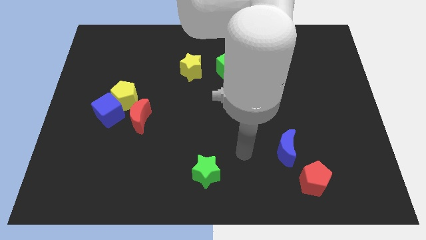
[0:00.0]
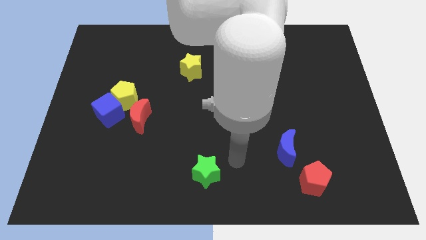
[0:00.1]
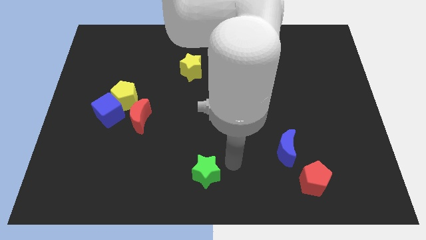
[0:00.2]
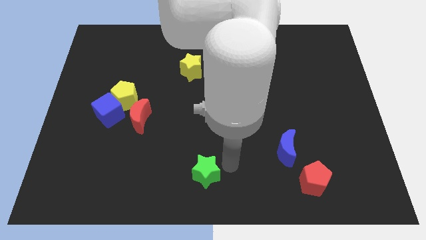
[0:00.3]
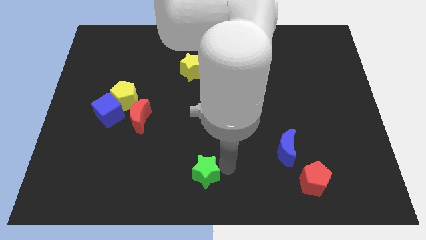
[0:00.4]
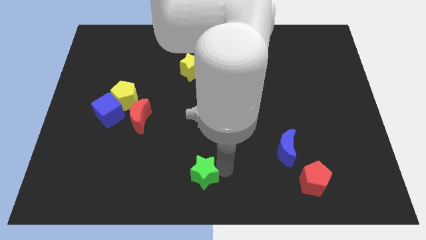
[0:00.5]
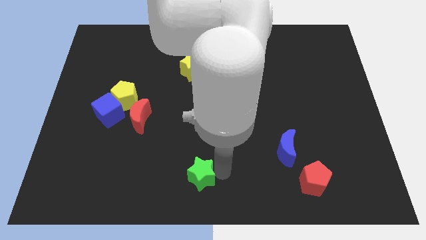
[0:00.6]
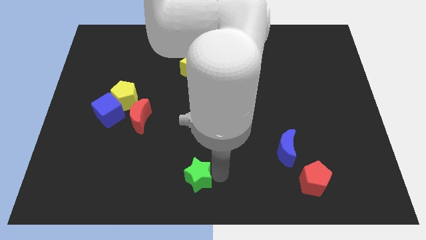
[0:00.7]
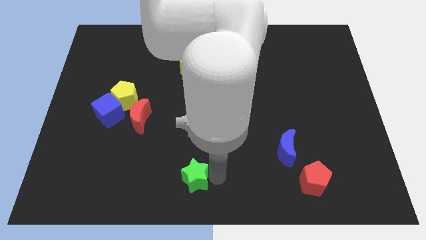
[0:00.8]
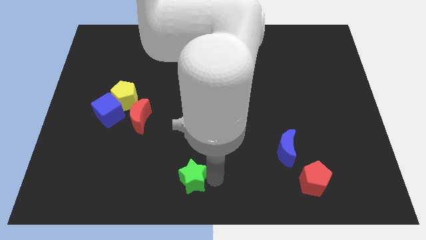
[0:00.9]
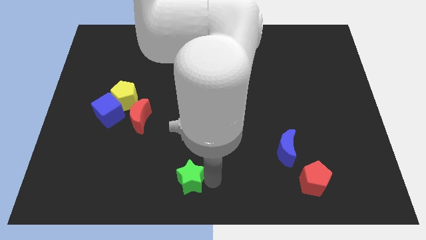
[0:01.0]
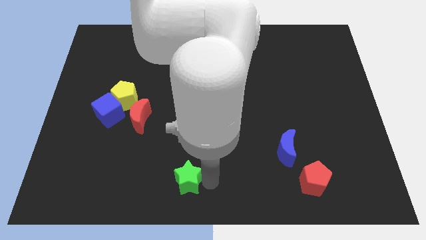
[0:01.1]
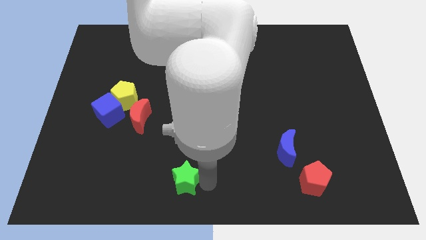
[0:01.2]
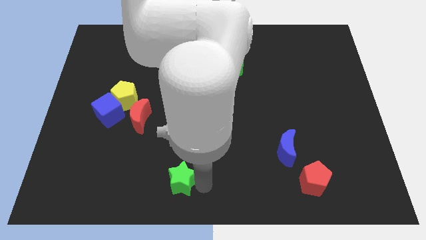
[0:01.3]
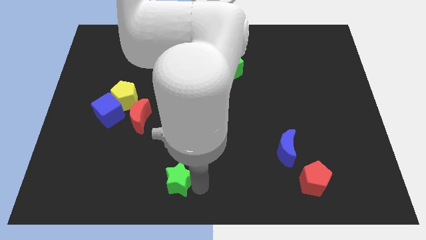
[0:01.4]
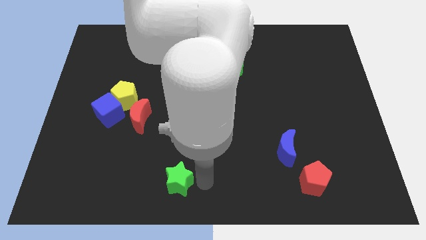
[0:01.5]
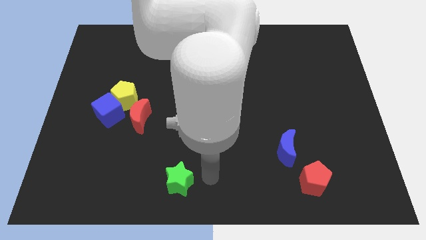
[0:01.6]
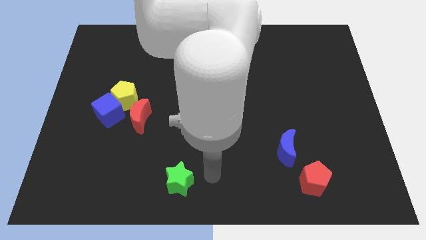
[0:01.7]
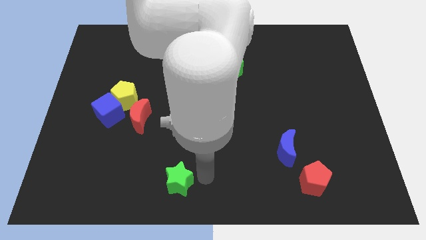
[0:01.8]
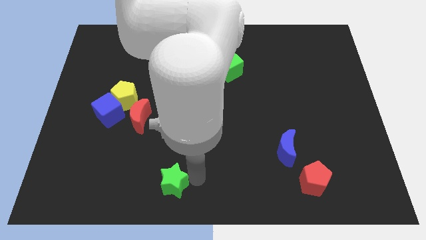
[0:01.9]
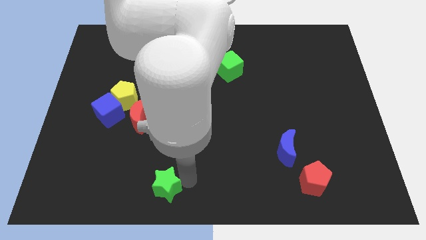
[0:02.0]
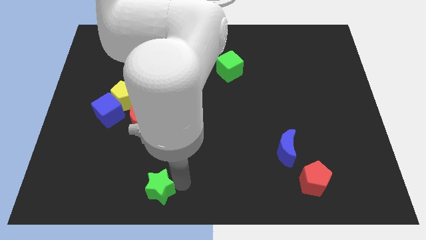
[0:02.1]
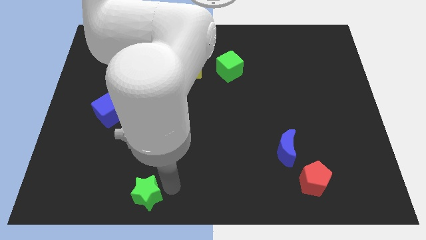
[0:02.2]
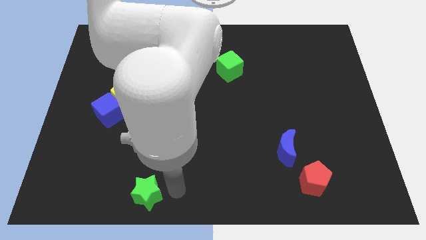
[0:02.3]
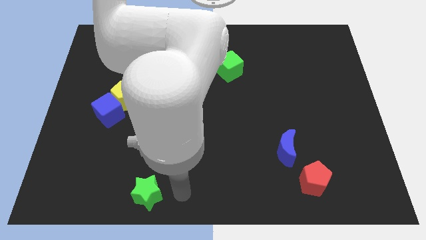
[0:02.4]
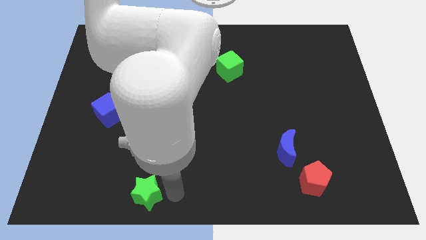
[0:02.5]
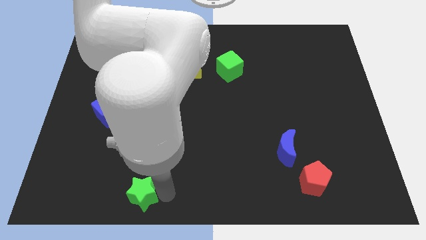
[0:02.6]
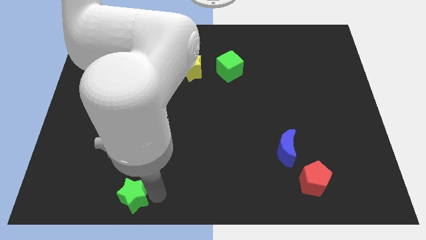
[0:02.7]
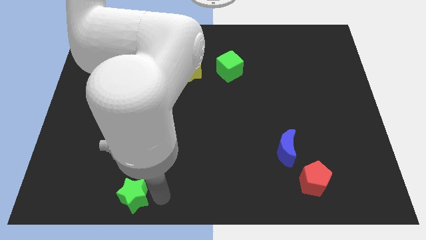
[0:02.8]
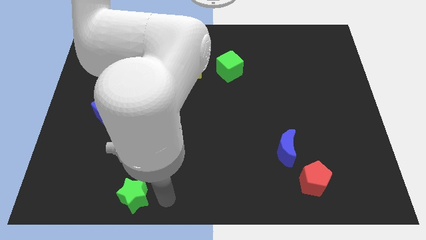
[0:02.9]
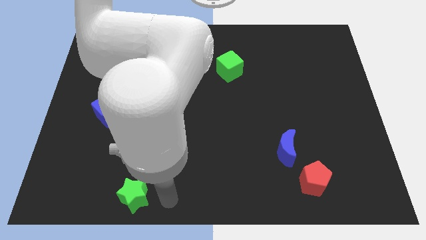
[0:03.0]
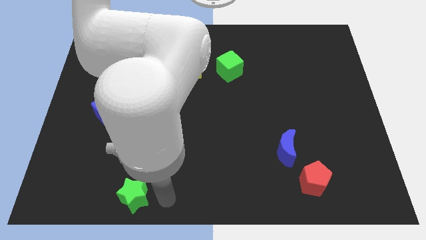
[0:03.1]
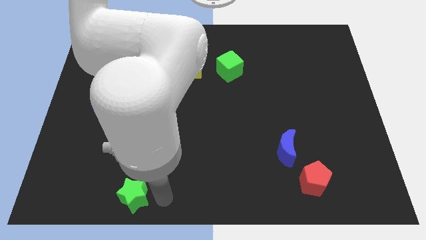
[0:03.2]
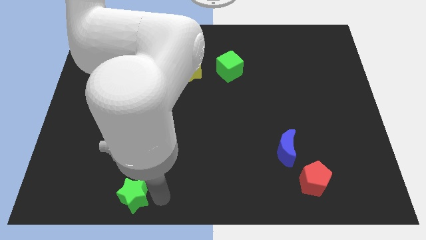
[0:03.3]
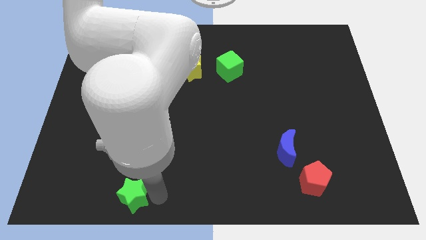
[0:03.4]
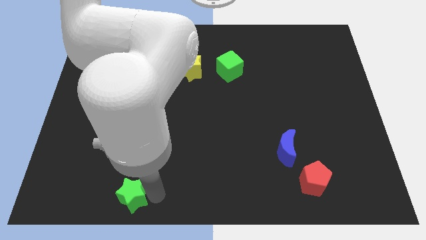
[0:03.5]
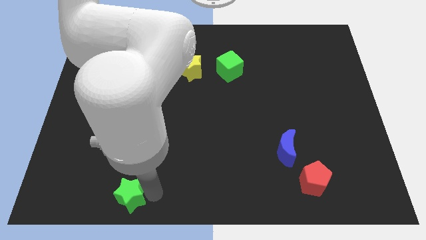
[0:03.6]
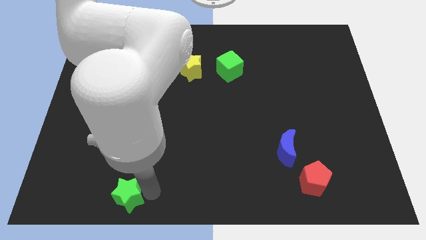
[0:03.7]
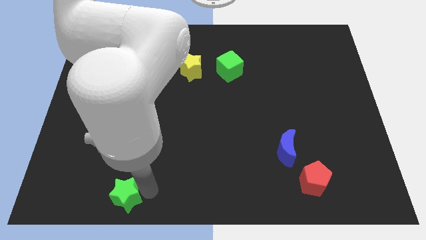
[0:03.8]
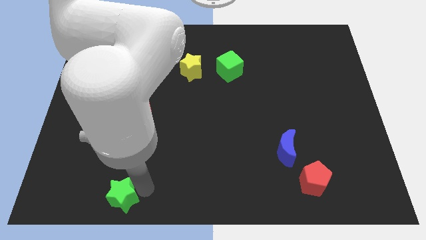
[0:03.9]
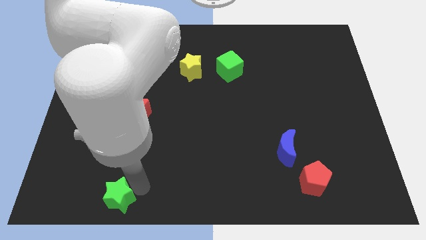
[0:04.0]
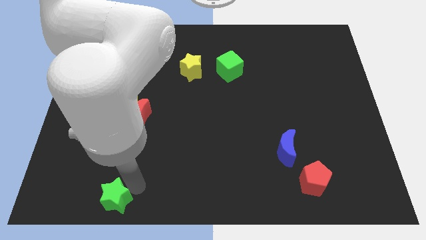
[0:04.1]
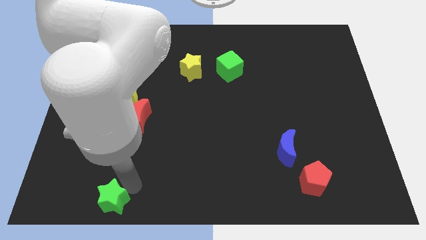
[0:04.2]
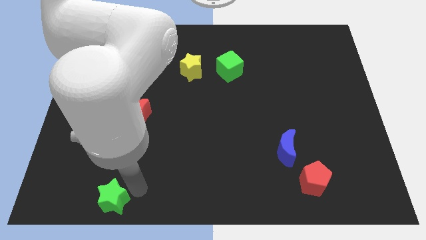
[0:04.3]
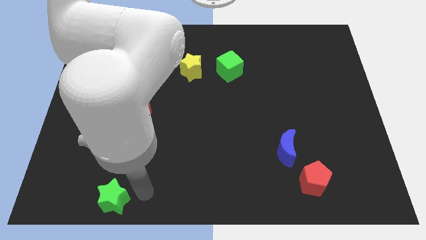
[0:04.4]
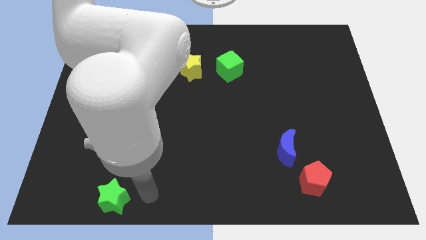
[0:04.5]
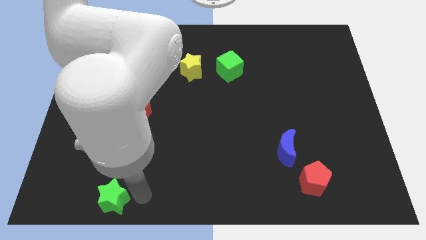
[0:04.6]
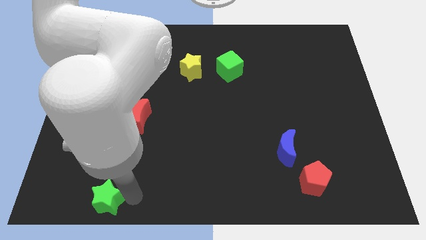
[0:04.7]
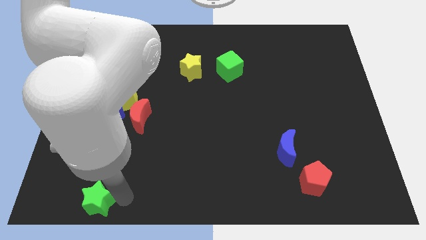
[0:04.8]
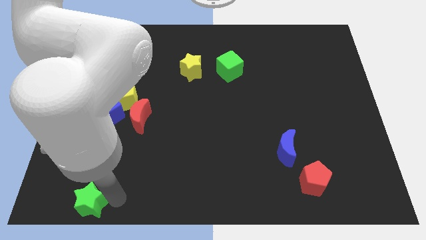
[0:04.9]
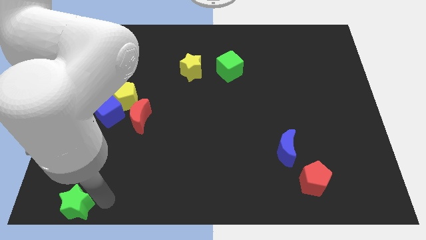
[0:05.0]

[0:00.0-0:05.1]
move the green star to the lower left corner

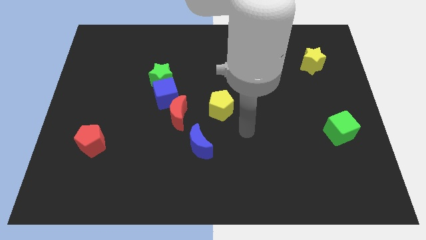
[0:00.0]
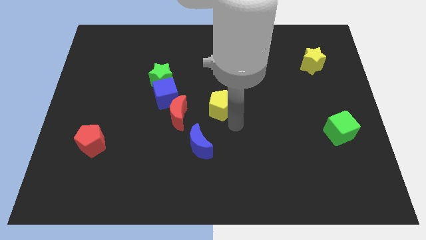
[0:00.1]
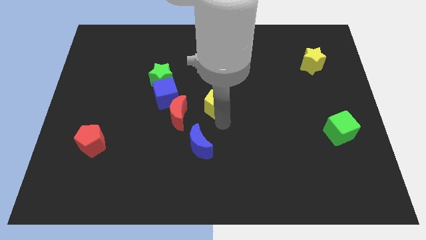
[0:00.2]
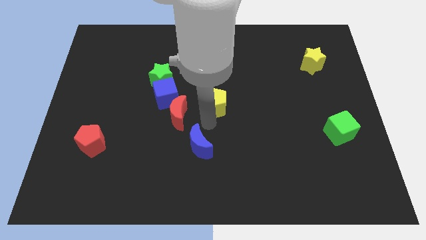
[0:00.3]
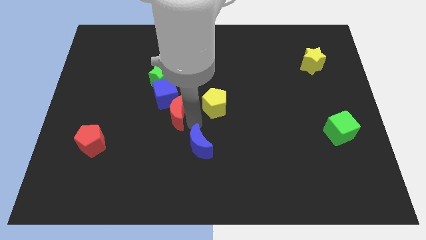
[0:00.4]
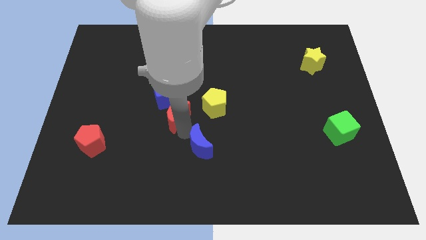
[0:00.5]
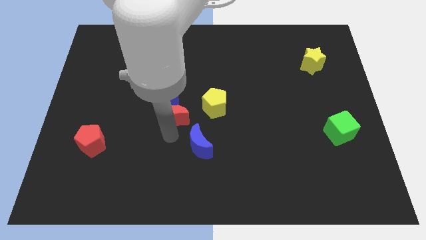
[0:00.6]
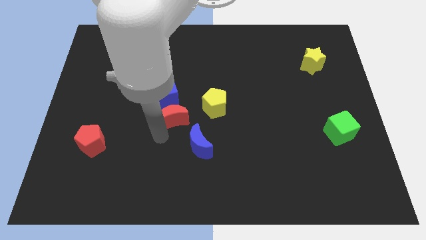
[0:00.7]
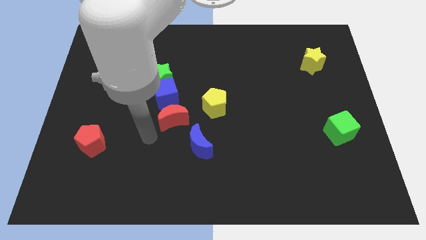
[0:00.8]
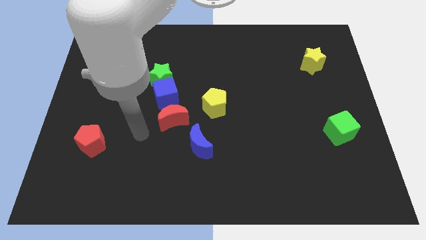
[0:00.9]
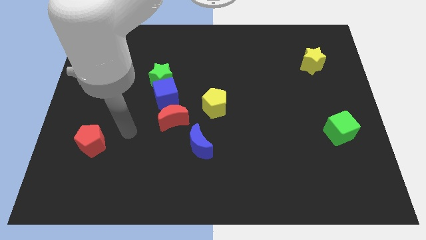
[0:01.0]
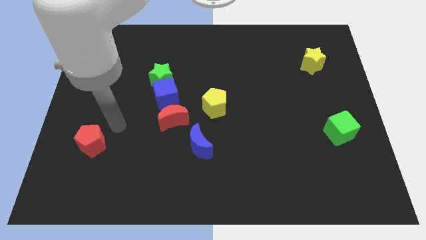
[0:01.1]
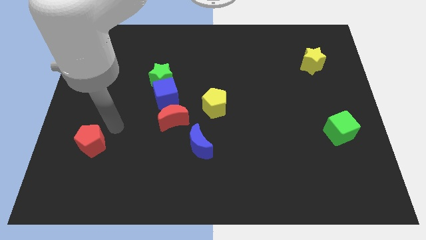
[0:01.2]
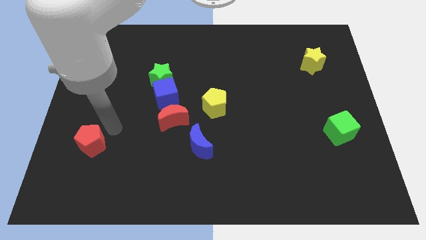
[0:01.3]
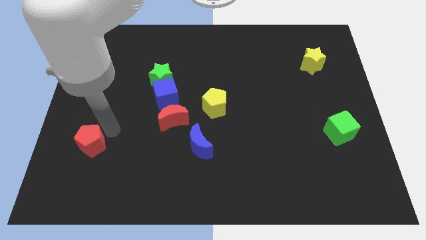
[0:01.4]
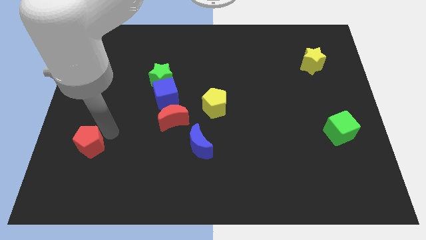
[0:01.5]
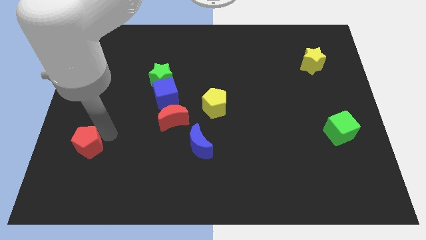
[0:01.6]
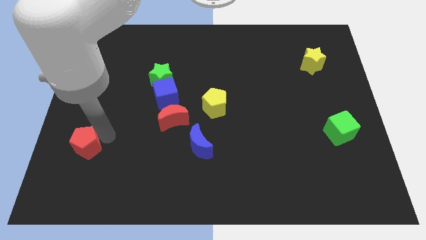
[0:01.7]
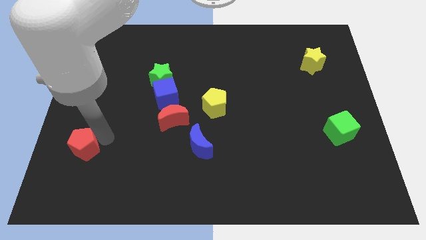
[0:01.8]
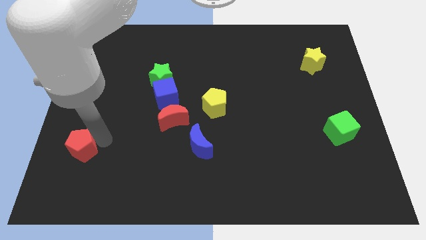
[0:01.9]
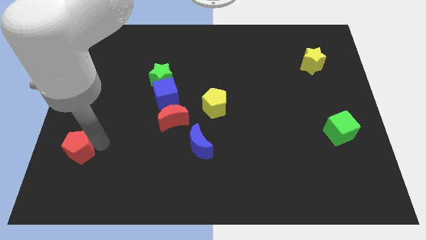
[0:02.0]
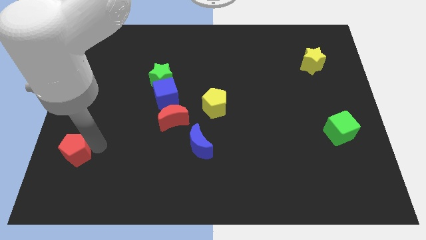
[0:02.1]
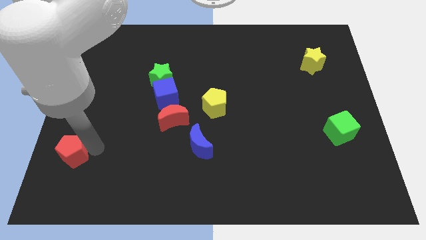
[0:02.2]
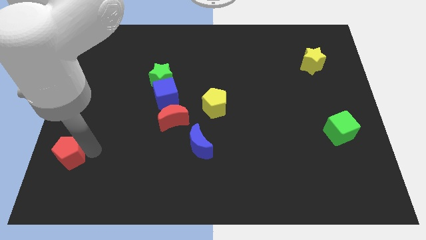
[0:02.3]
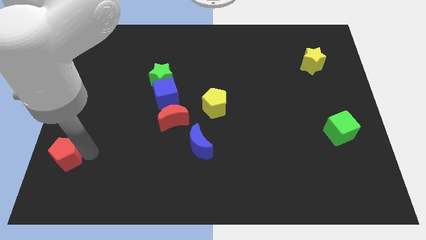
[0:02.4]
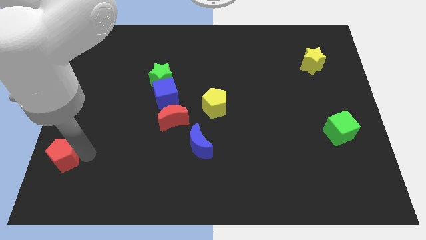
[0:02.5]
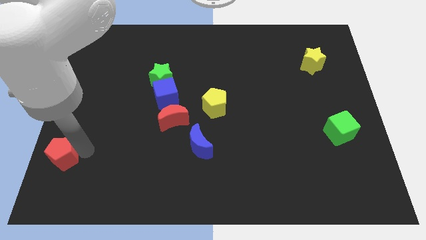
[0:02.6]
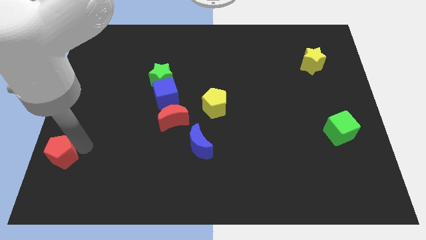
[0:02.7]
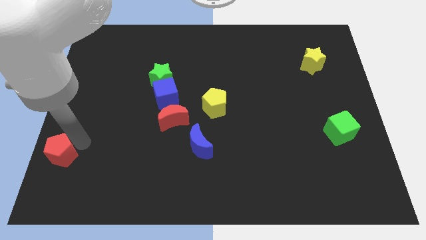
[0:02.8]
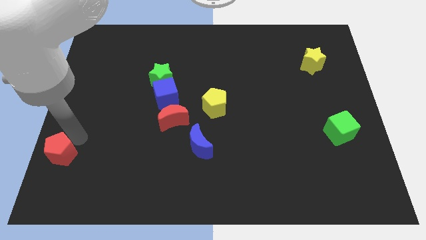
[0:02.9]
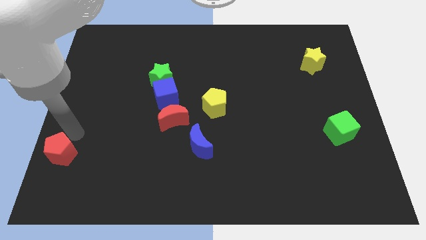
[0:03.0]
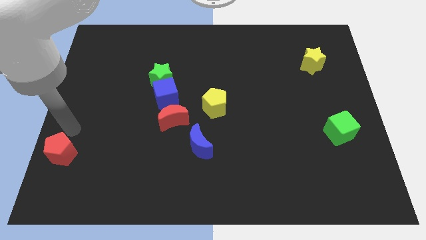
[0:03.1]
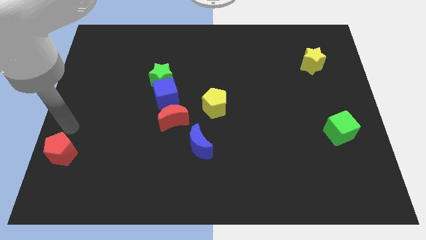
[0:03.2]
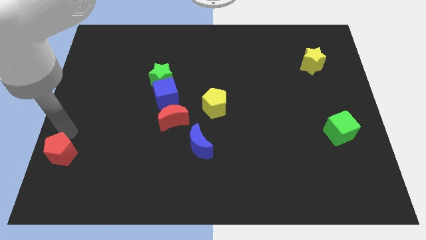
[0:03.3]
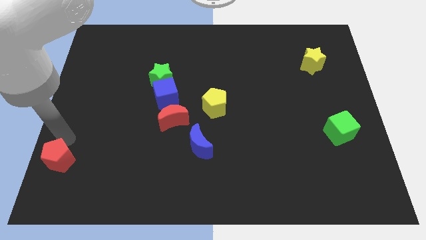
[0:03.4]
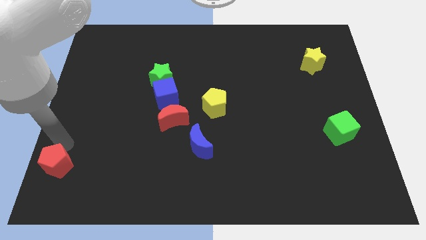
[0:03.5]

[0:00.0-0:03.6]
slide the red pentagon to the bottom left
